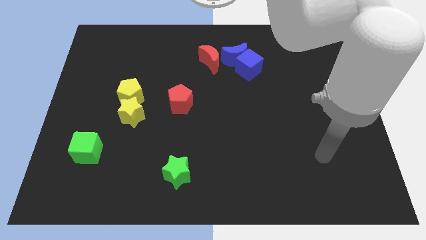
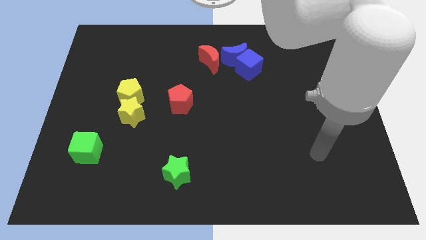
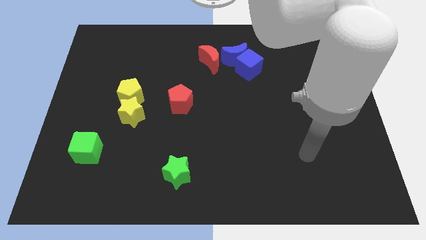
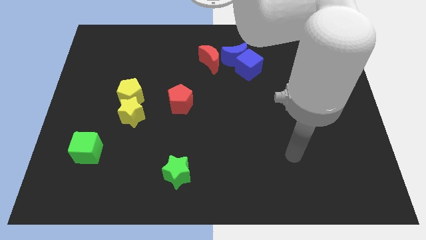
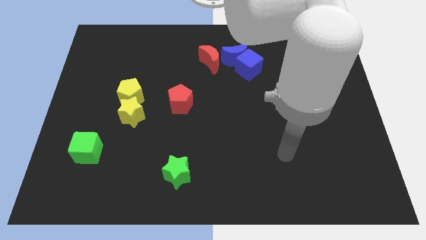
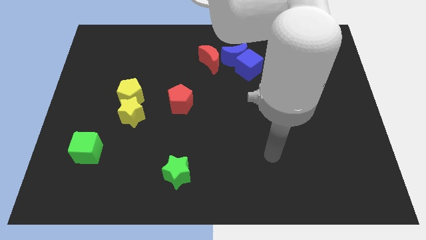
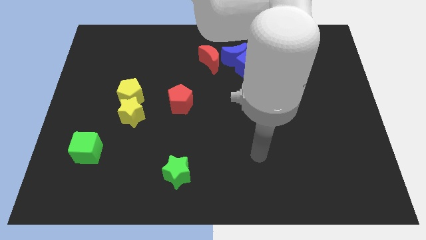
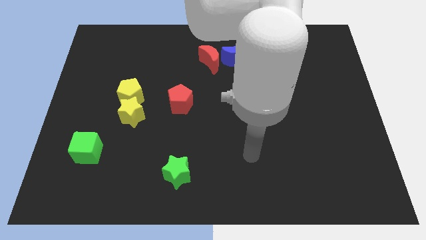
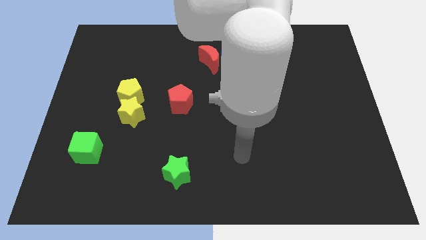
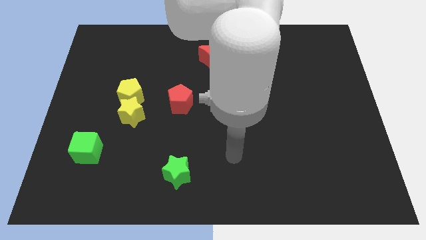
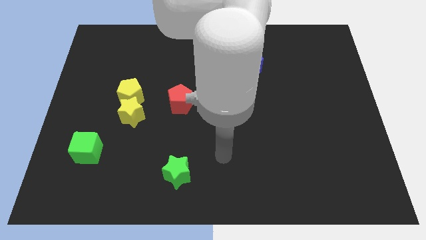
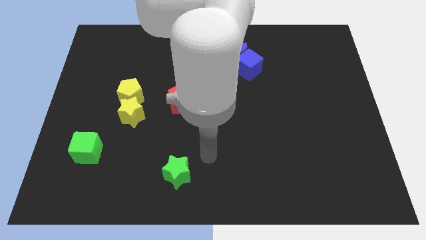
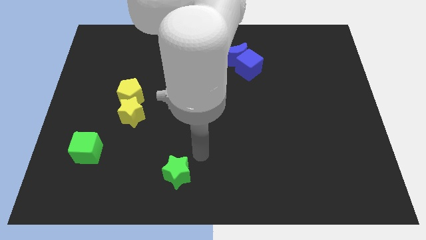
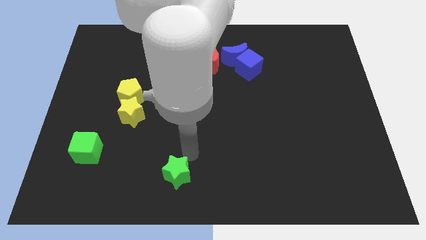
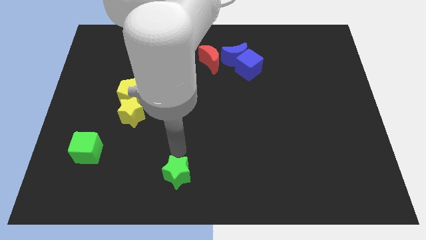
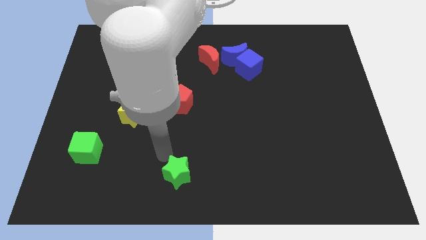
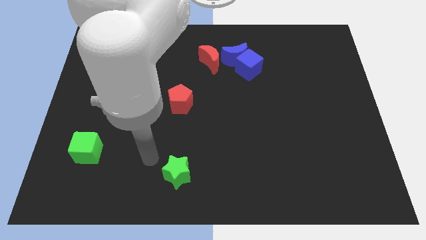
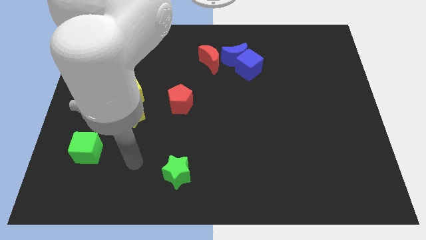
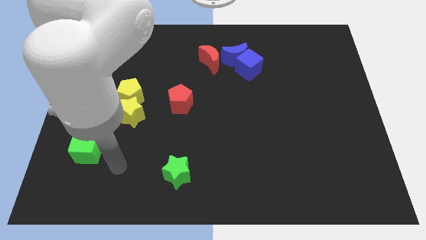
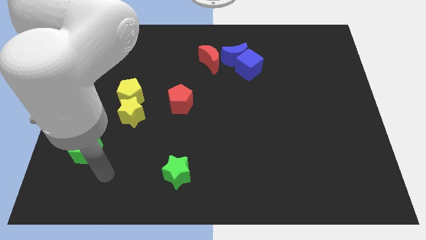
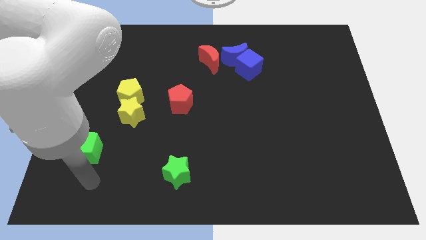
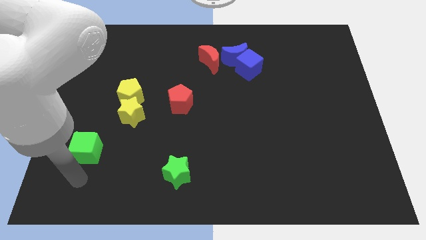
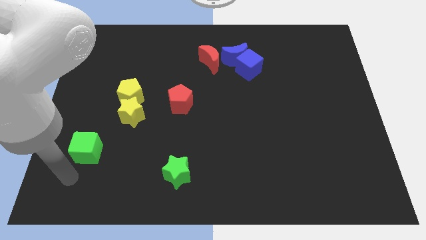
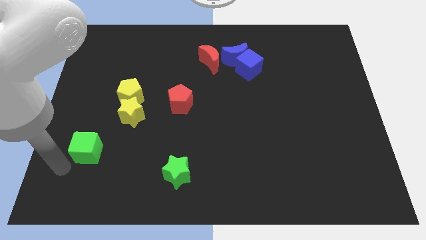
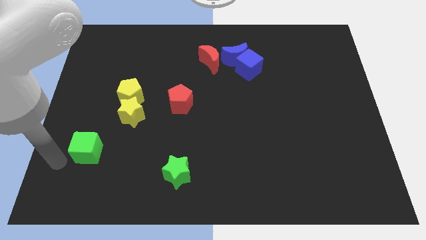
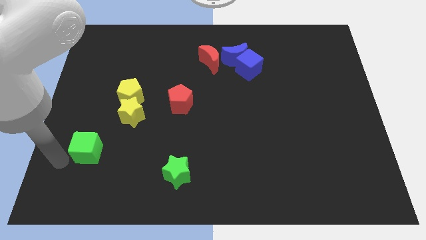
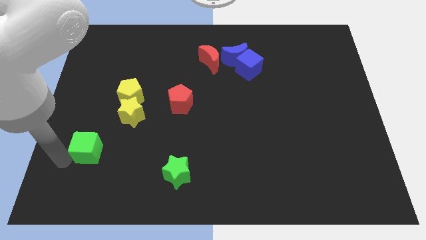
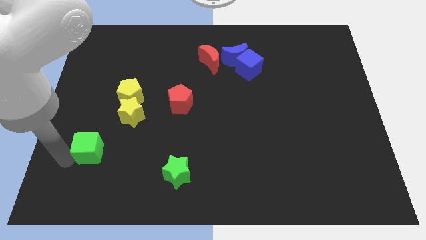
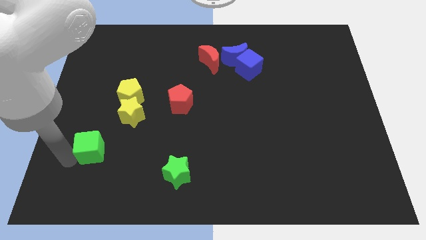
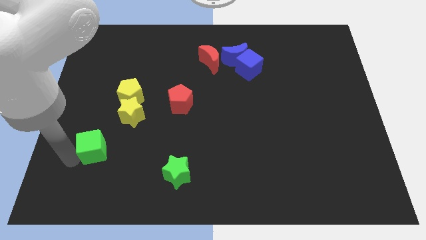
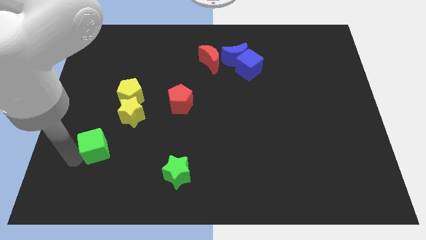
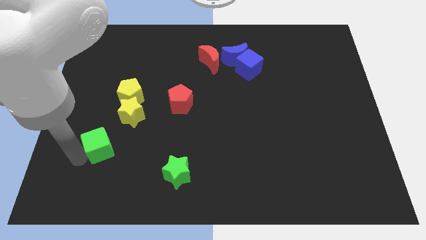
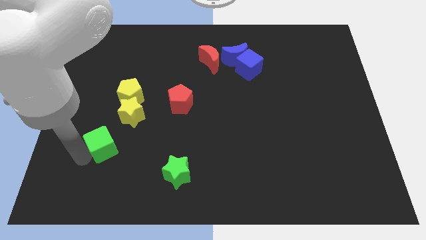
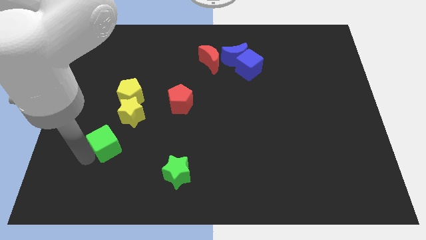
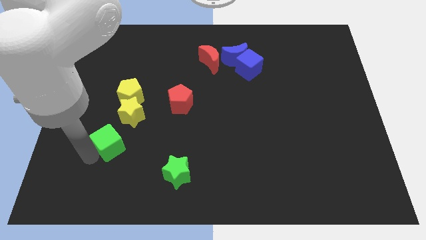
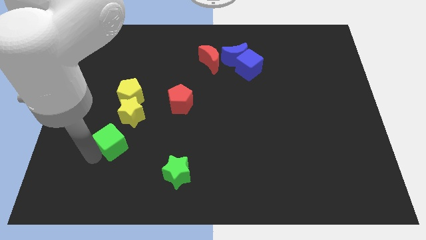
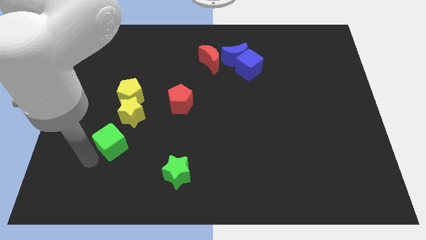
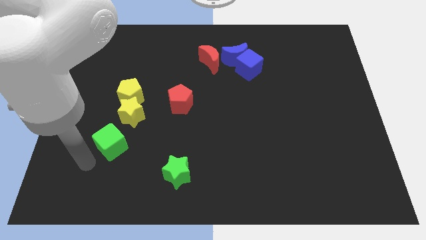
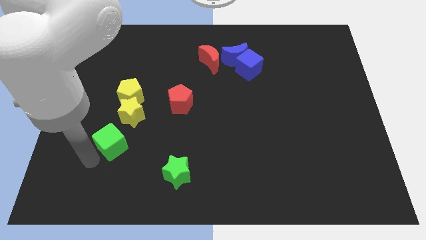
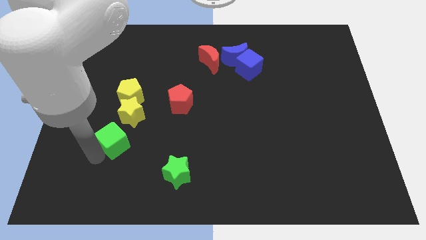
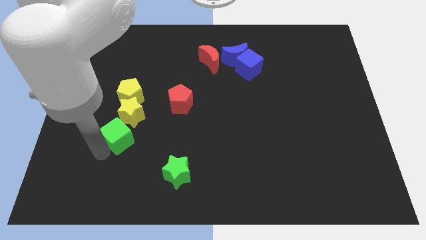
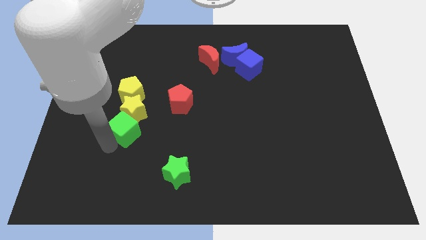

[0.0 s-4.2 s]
slightly move the green cube diagonally up and to the right

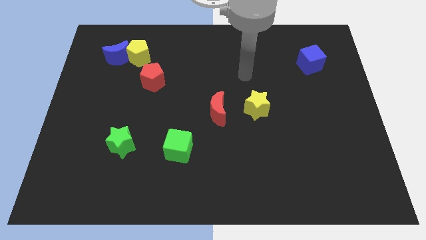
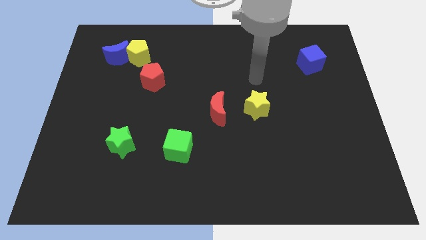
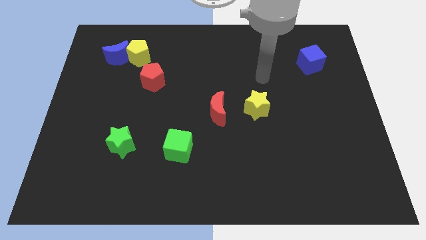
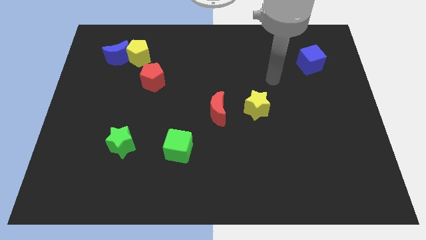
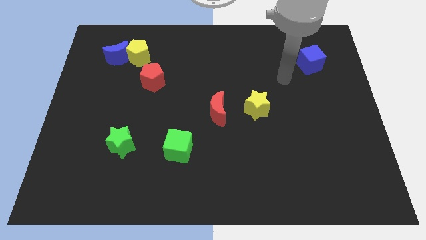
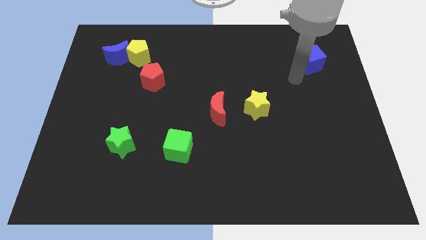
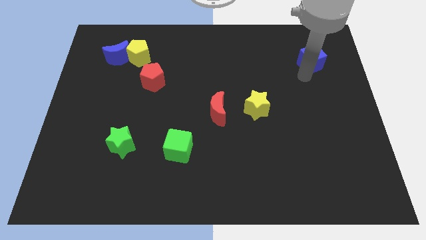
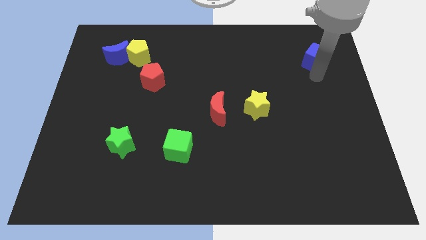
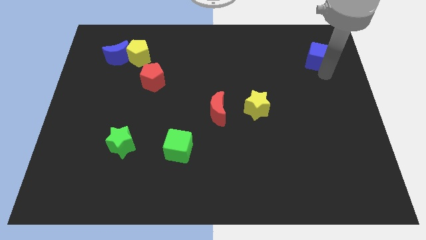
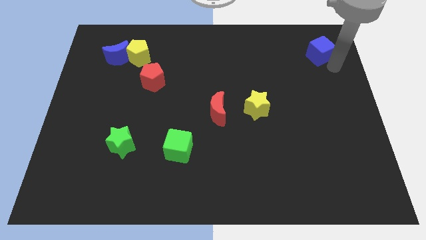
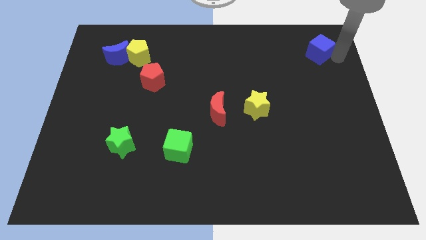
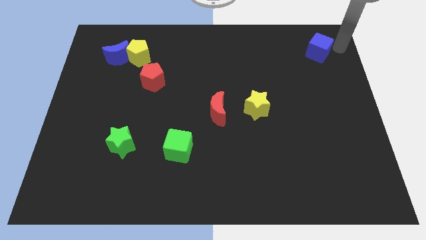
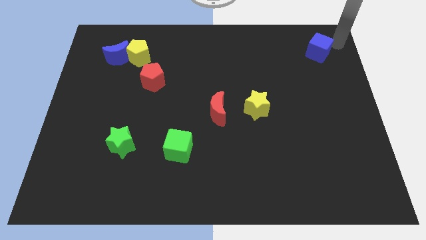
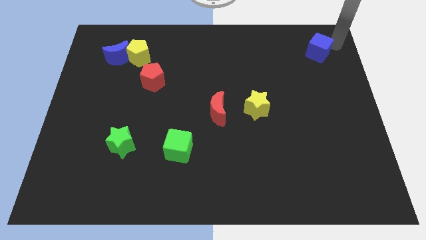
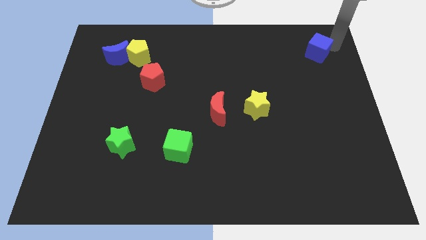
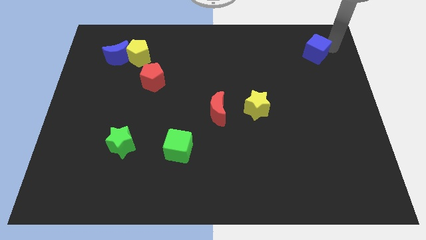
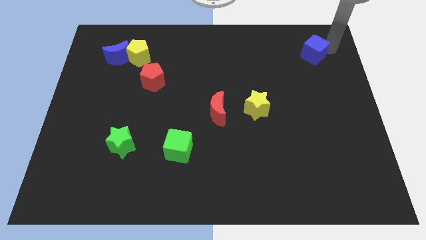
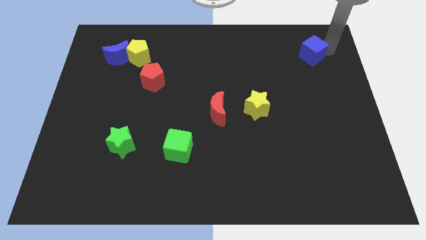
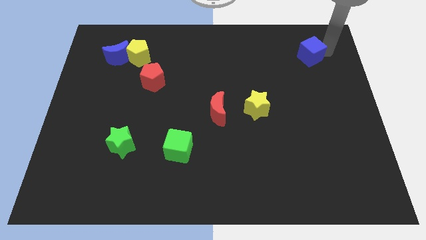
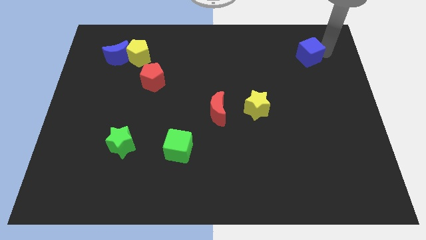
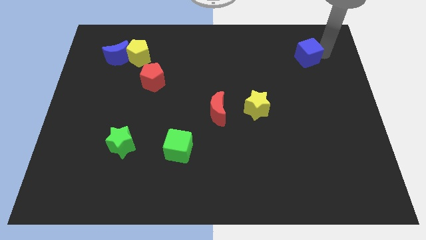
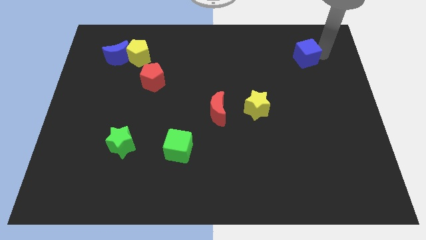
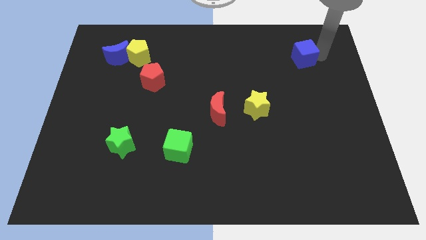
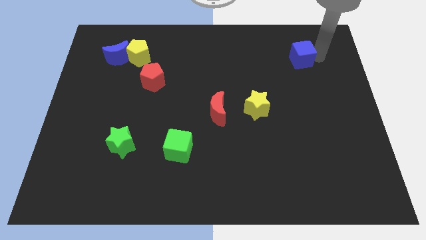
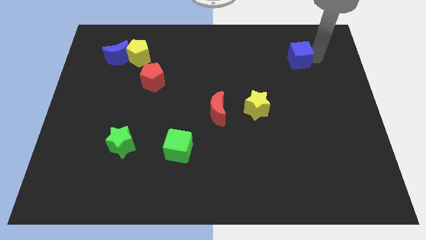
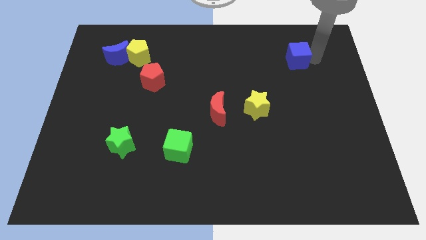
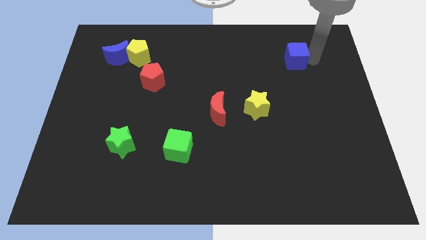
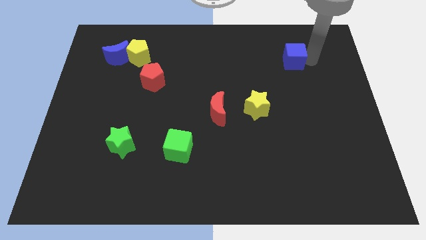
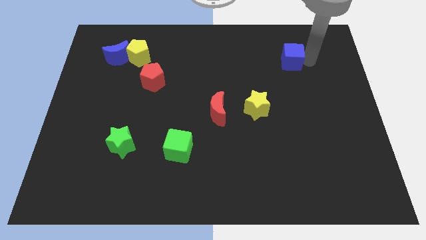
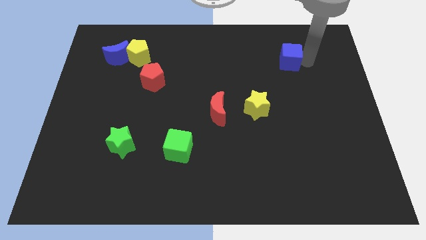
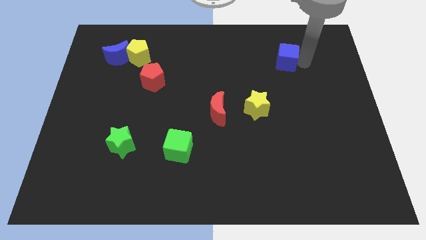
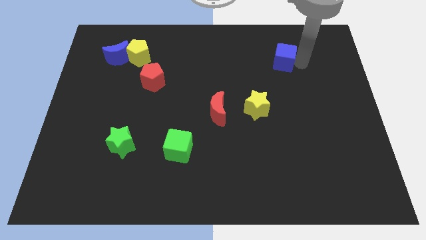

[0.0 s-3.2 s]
push the blue cube to the left somewhat

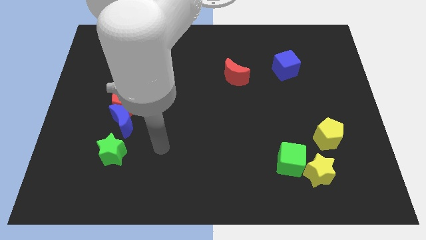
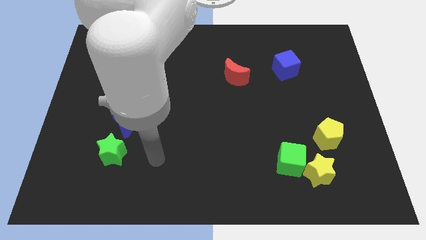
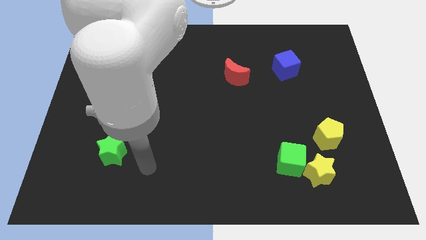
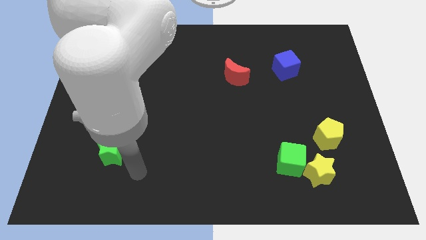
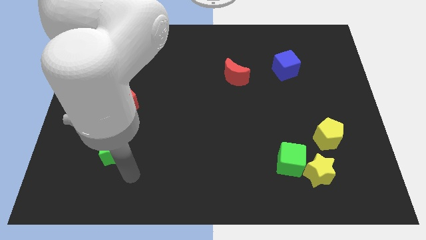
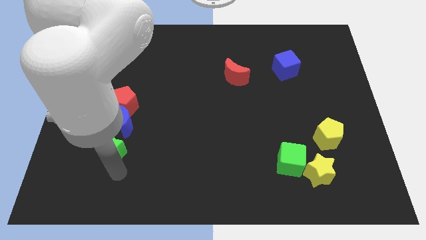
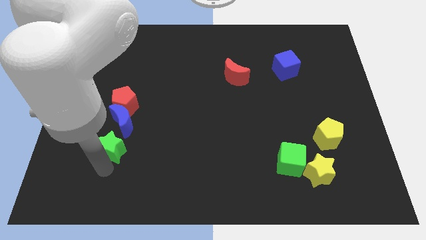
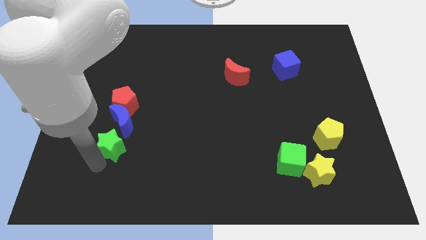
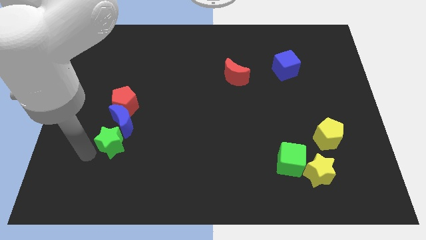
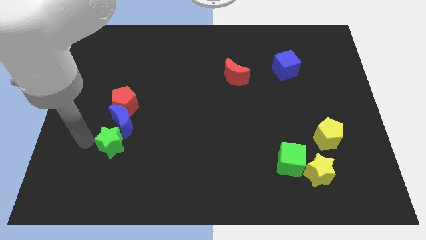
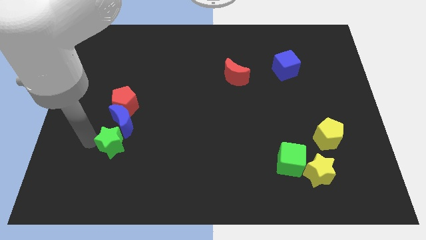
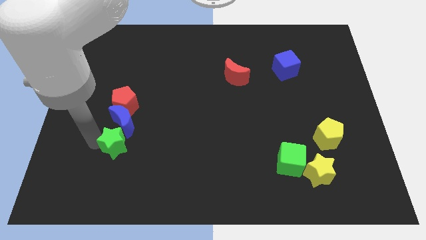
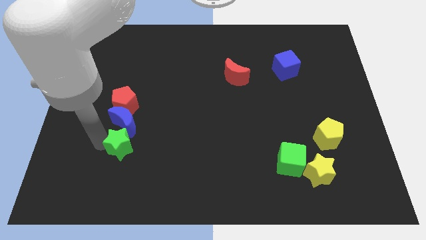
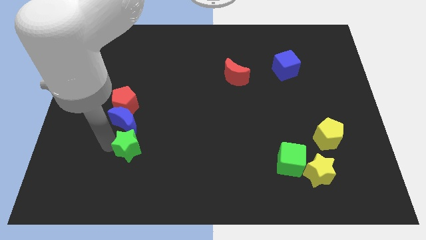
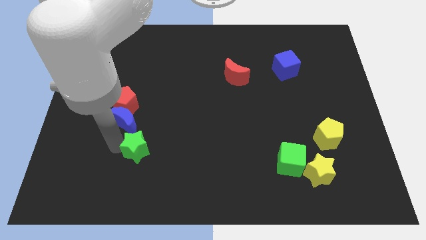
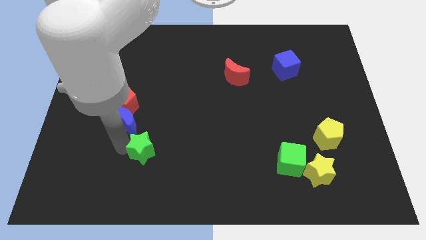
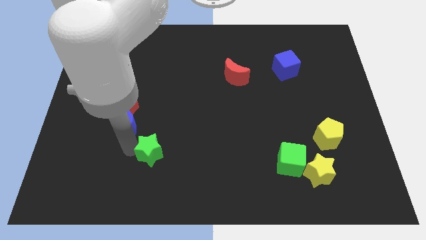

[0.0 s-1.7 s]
move the green star right a little
